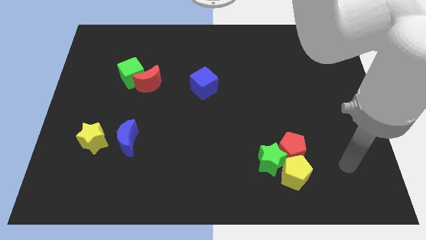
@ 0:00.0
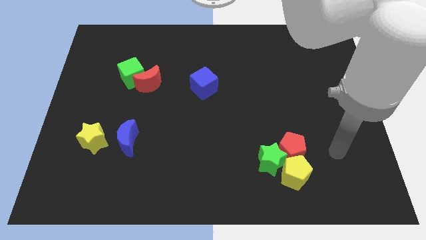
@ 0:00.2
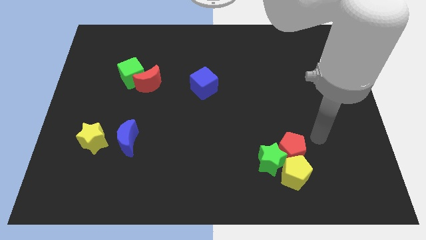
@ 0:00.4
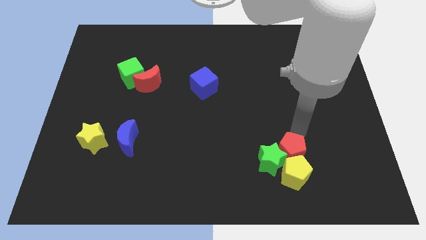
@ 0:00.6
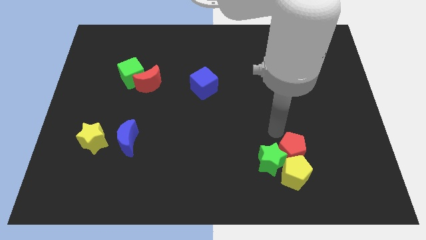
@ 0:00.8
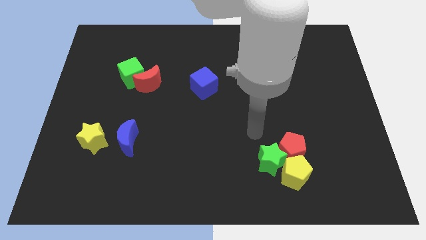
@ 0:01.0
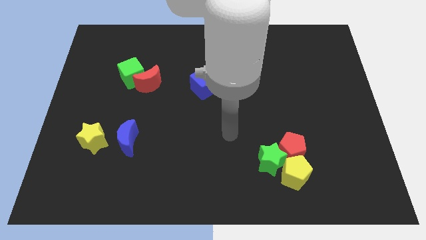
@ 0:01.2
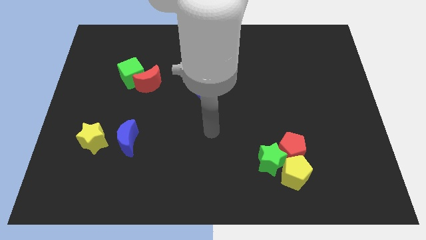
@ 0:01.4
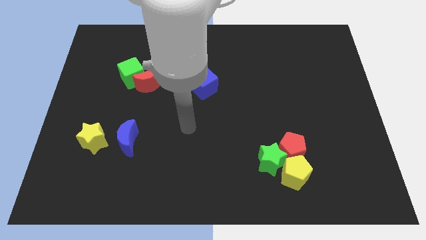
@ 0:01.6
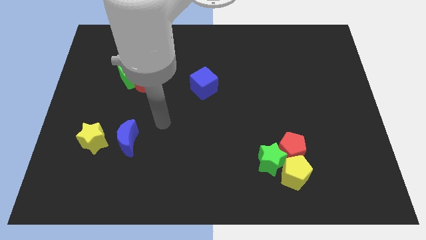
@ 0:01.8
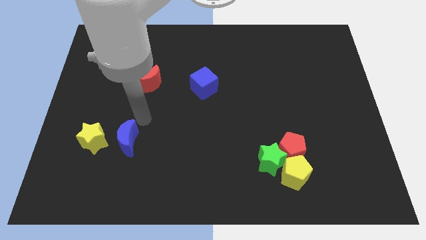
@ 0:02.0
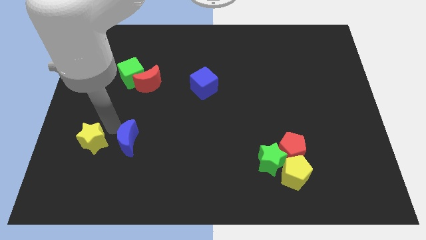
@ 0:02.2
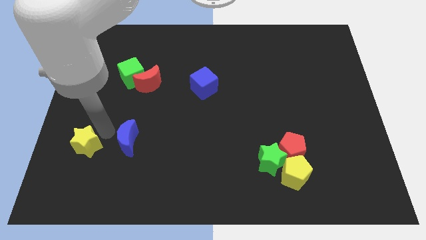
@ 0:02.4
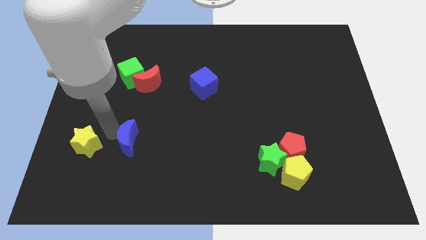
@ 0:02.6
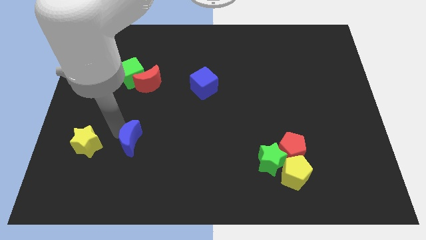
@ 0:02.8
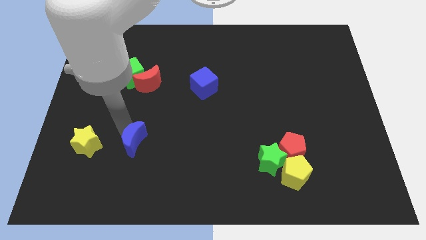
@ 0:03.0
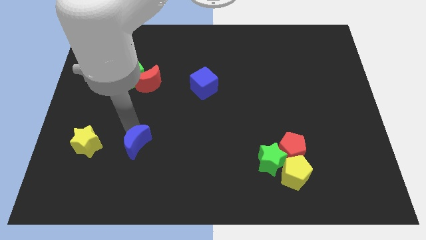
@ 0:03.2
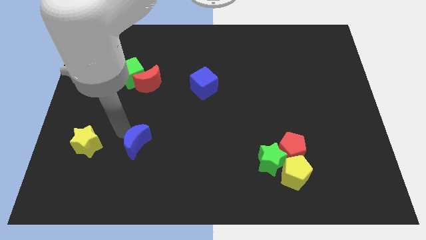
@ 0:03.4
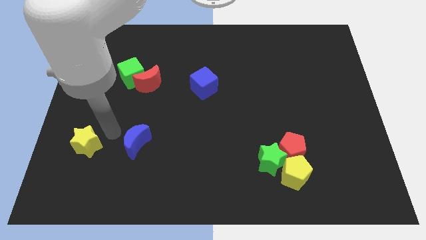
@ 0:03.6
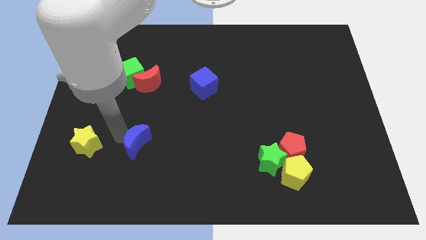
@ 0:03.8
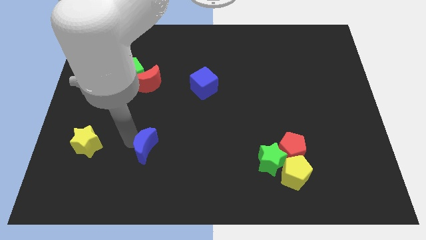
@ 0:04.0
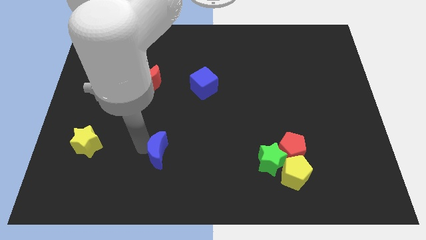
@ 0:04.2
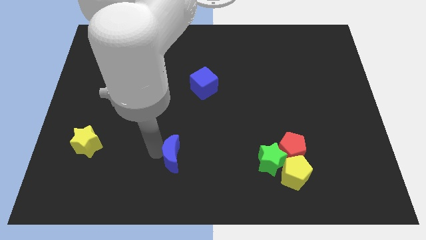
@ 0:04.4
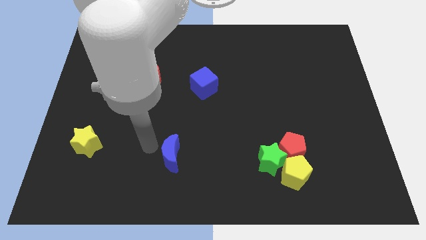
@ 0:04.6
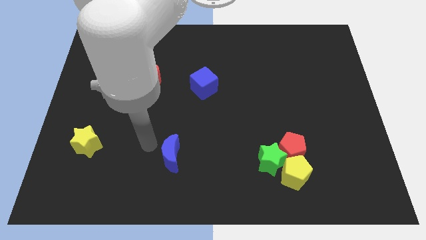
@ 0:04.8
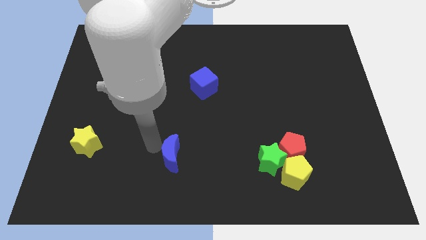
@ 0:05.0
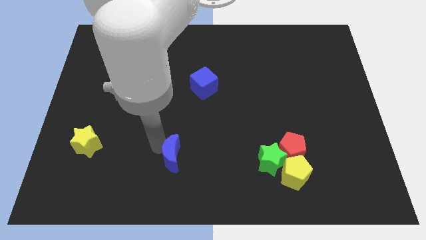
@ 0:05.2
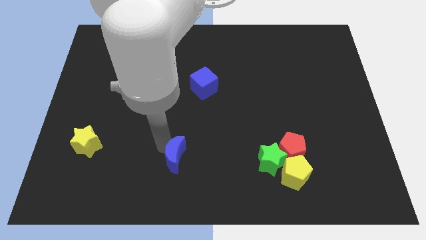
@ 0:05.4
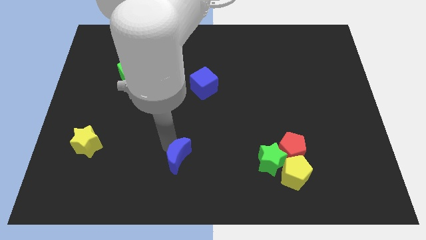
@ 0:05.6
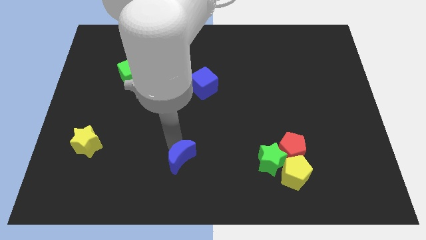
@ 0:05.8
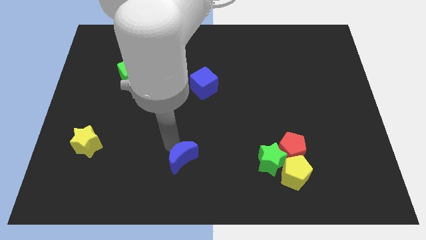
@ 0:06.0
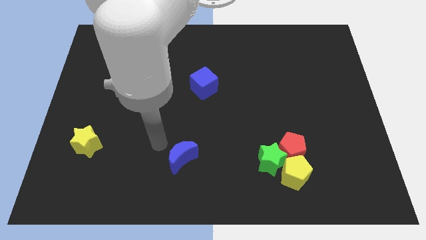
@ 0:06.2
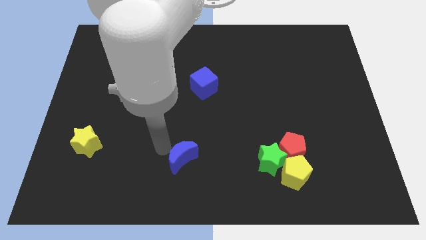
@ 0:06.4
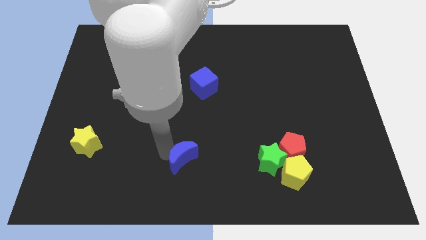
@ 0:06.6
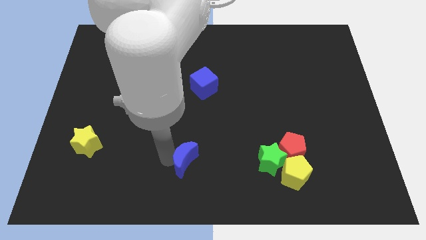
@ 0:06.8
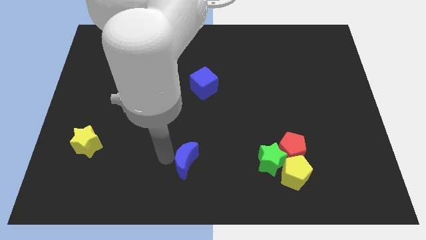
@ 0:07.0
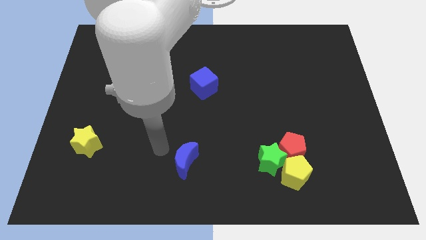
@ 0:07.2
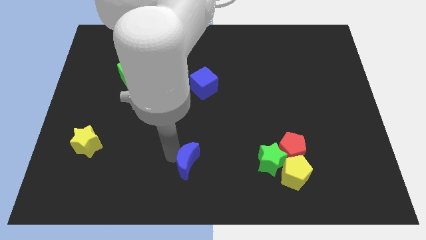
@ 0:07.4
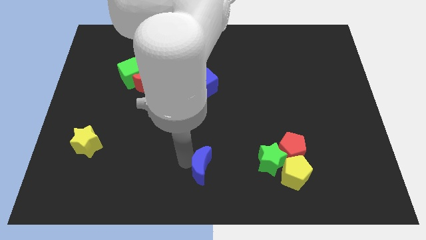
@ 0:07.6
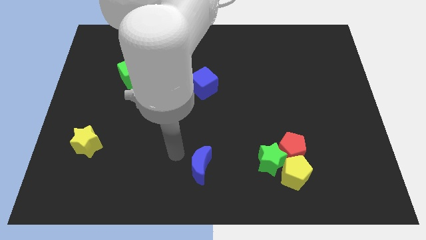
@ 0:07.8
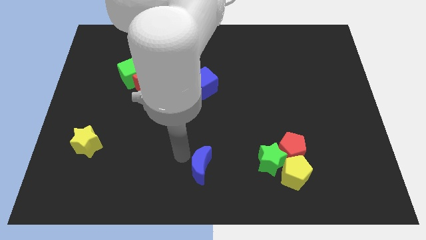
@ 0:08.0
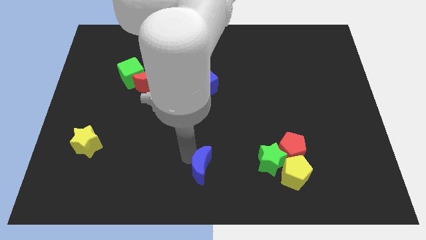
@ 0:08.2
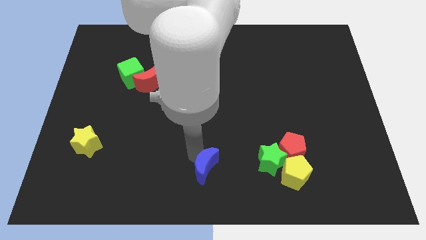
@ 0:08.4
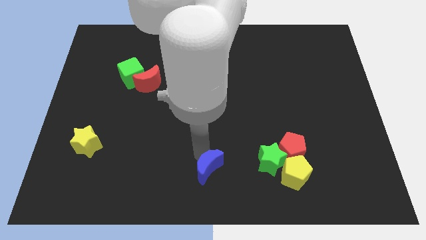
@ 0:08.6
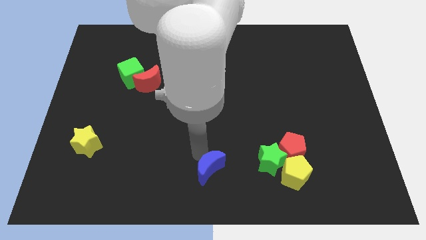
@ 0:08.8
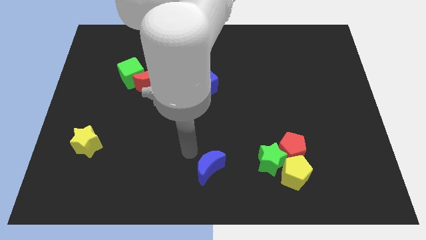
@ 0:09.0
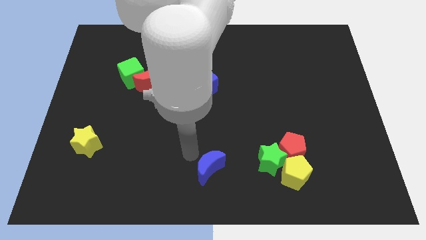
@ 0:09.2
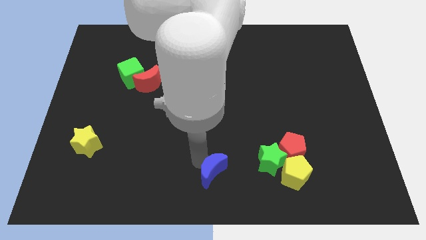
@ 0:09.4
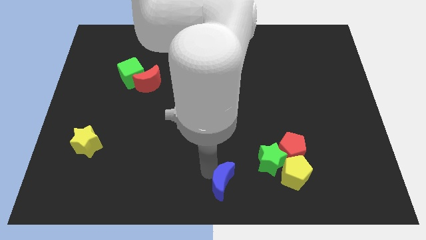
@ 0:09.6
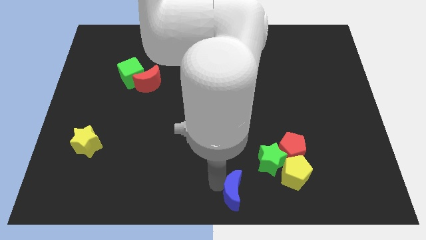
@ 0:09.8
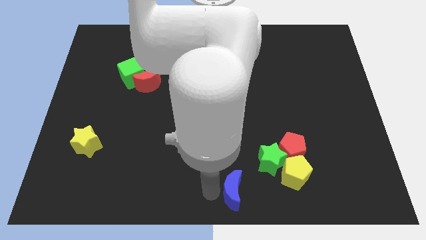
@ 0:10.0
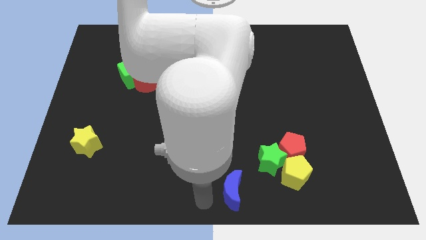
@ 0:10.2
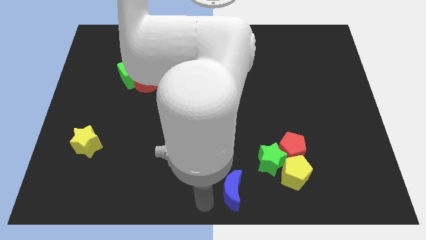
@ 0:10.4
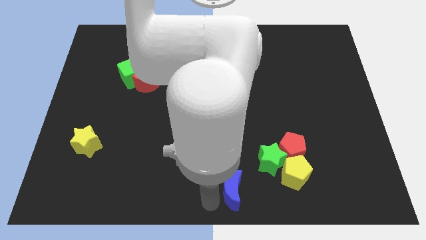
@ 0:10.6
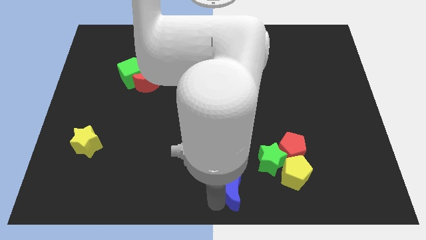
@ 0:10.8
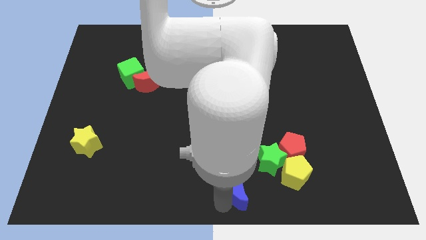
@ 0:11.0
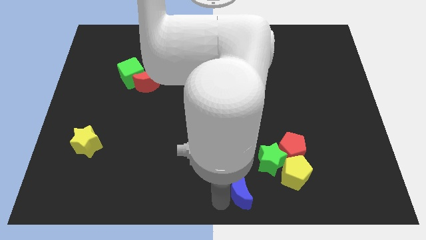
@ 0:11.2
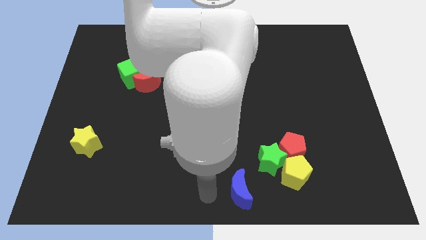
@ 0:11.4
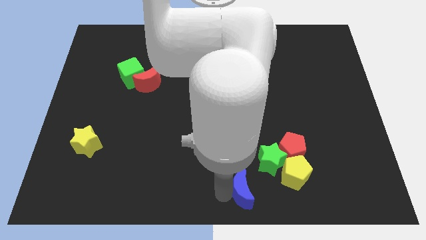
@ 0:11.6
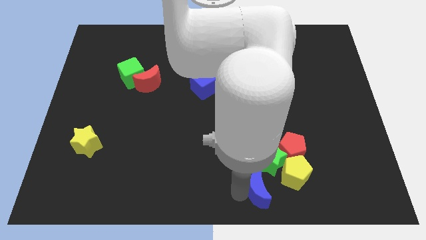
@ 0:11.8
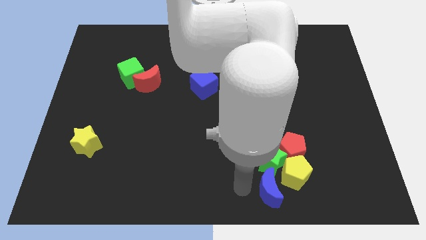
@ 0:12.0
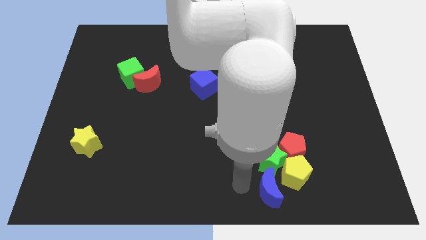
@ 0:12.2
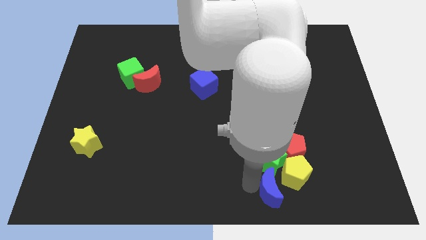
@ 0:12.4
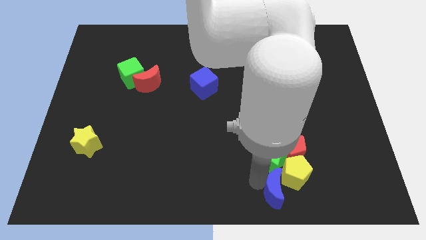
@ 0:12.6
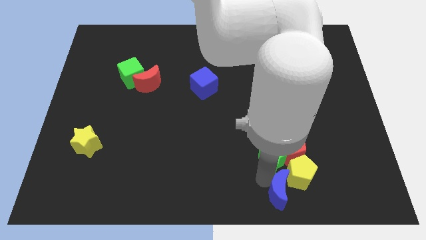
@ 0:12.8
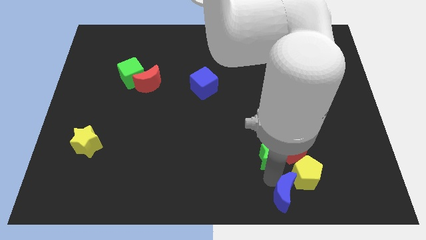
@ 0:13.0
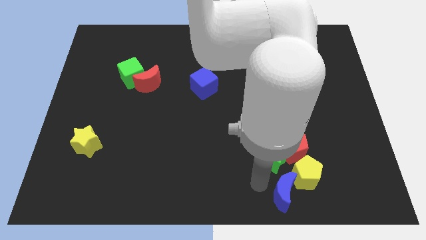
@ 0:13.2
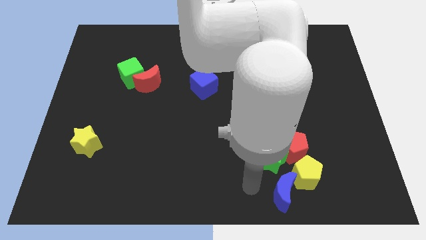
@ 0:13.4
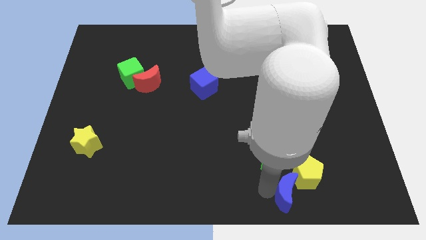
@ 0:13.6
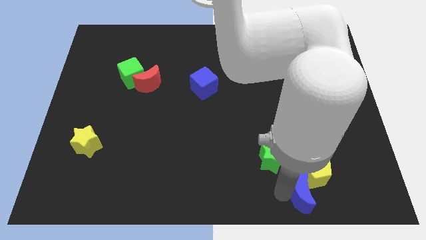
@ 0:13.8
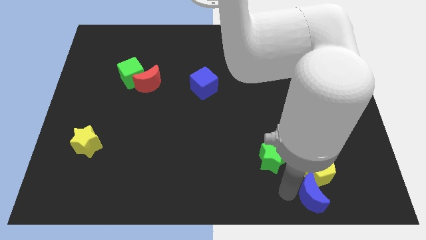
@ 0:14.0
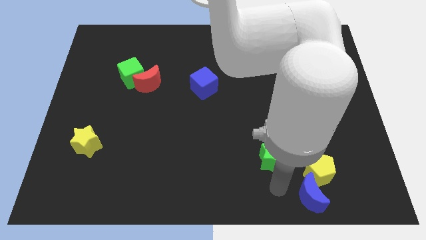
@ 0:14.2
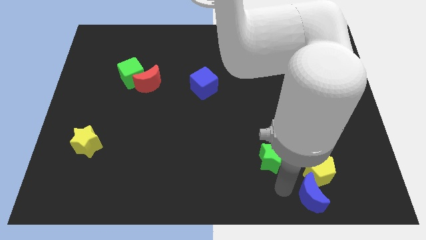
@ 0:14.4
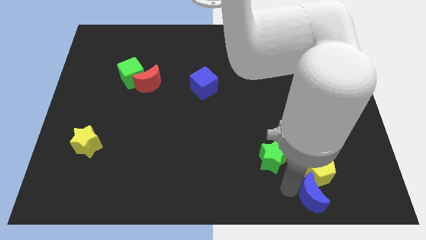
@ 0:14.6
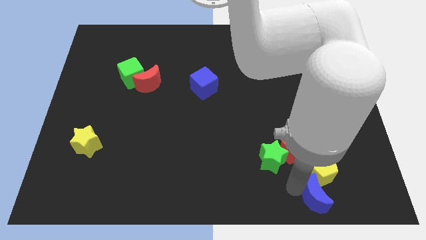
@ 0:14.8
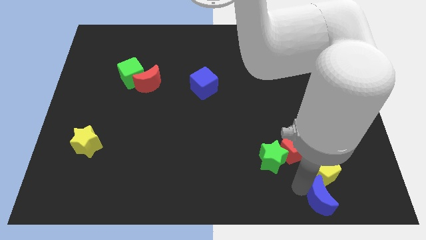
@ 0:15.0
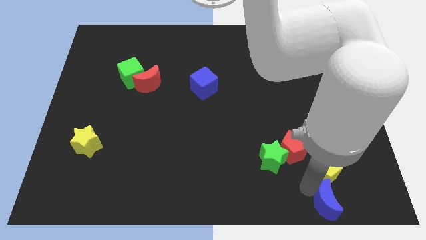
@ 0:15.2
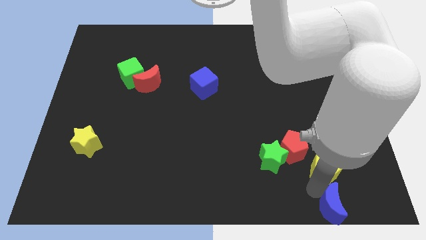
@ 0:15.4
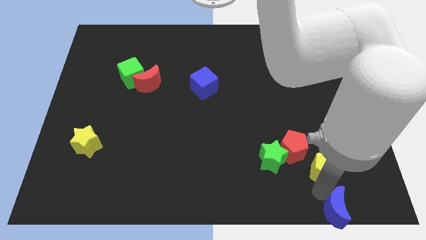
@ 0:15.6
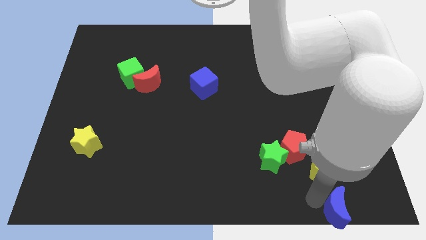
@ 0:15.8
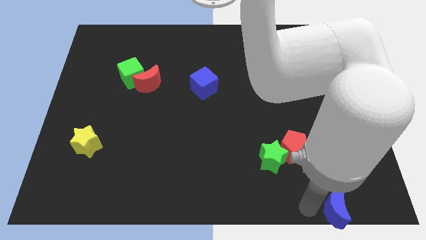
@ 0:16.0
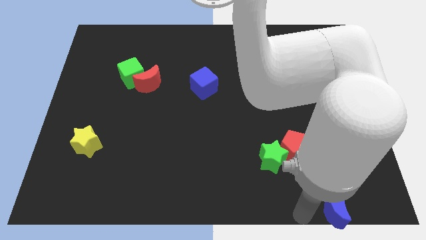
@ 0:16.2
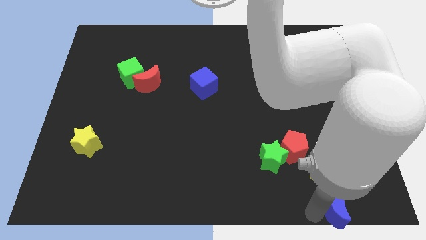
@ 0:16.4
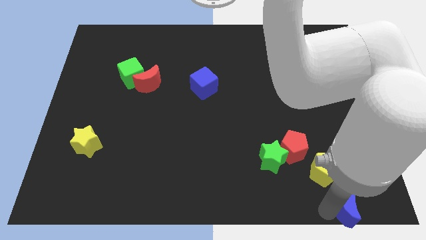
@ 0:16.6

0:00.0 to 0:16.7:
move the blue moon to the bottom right corner
